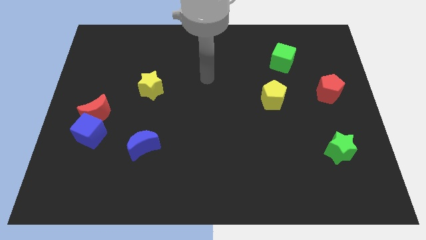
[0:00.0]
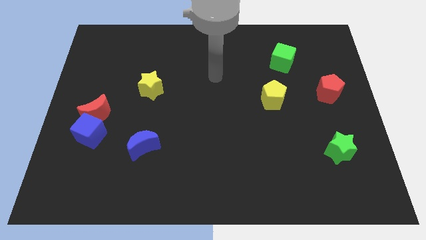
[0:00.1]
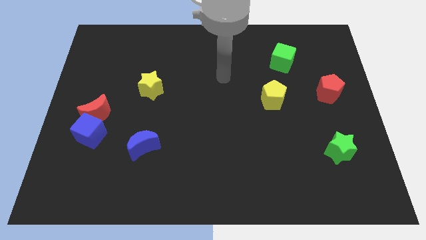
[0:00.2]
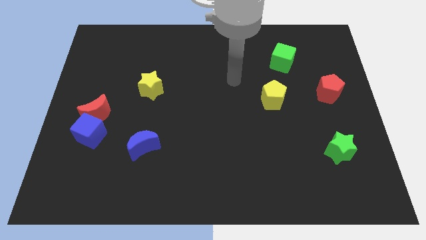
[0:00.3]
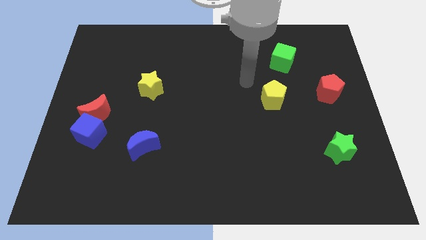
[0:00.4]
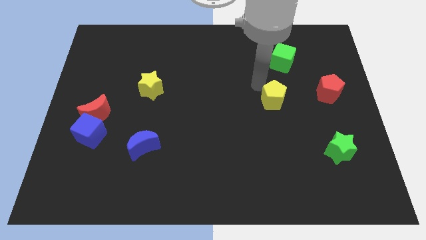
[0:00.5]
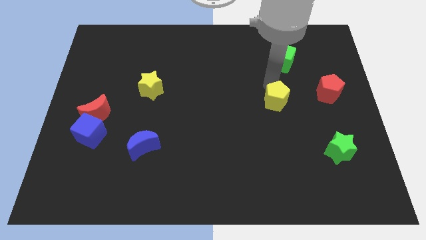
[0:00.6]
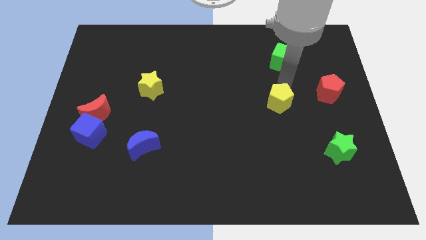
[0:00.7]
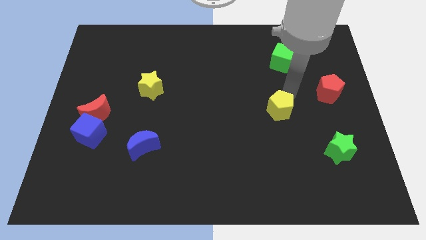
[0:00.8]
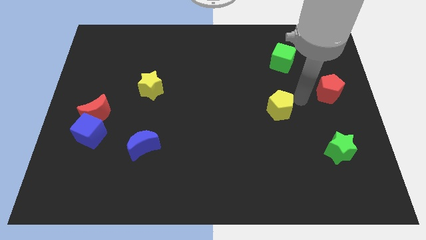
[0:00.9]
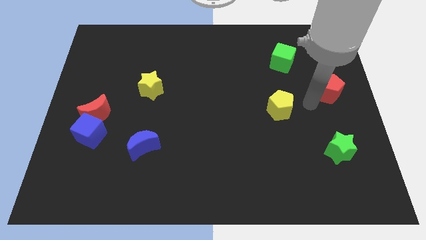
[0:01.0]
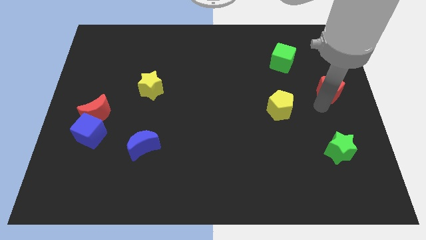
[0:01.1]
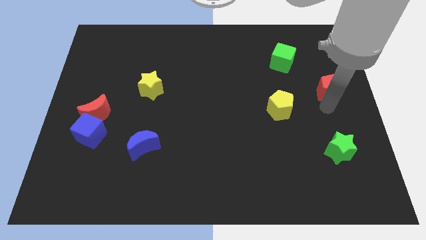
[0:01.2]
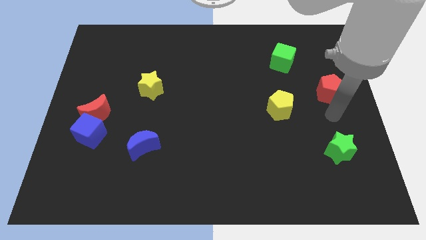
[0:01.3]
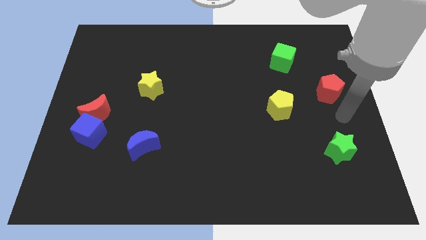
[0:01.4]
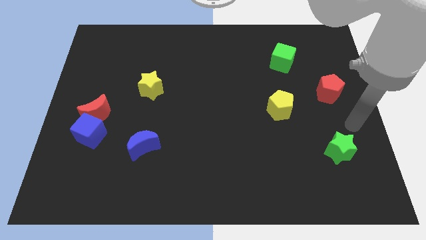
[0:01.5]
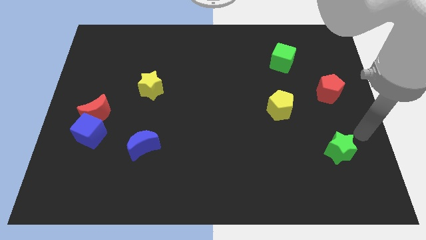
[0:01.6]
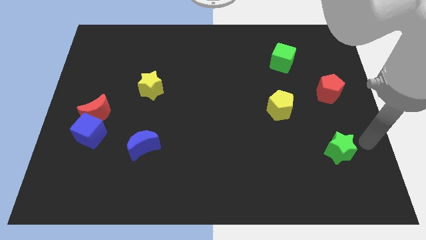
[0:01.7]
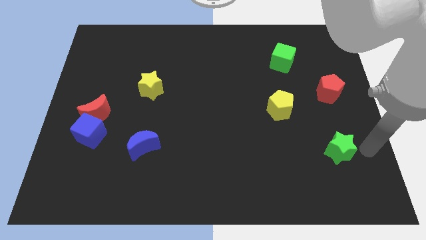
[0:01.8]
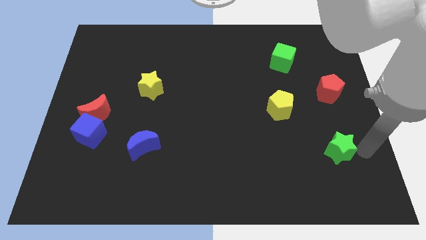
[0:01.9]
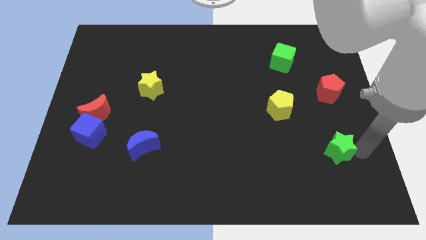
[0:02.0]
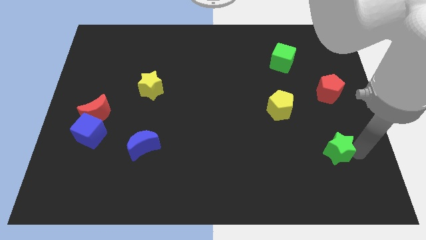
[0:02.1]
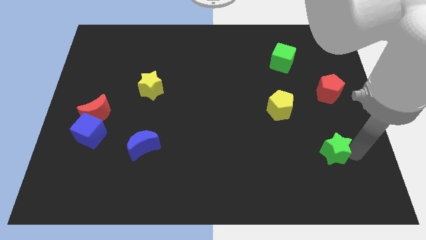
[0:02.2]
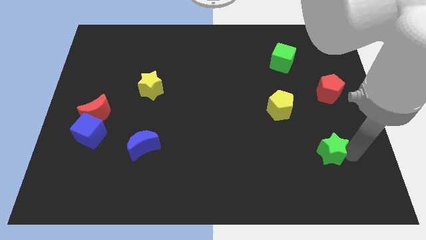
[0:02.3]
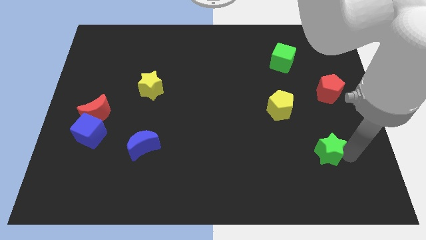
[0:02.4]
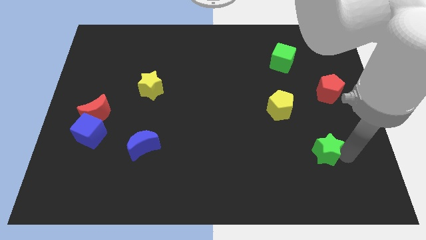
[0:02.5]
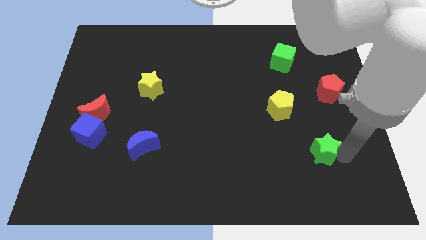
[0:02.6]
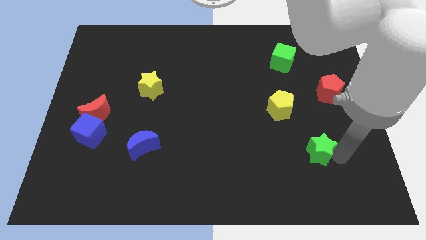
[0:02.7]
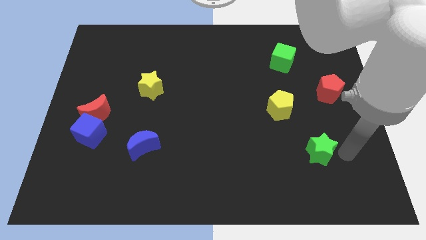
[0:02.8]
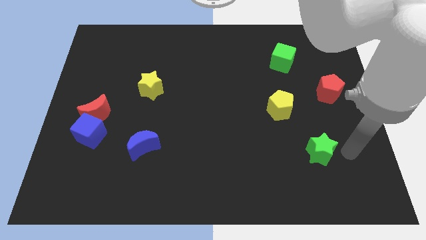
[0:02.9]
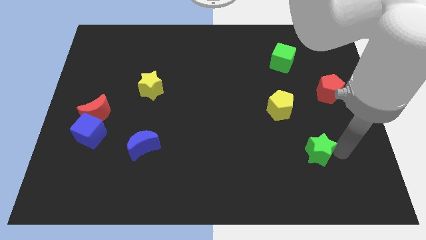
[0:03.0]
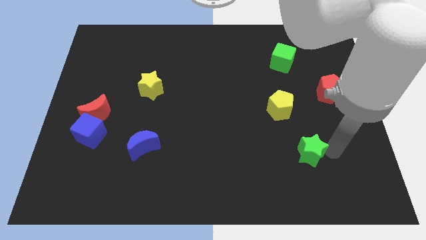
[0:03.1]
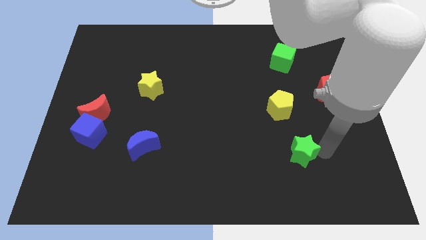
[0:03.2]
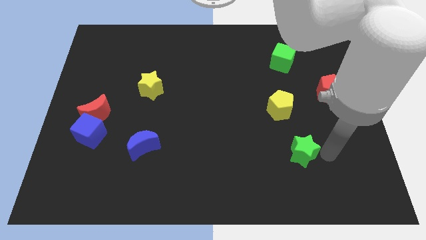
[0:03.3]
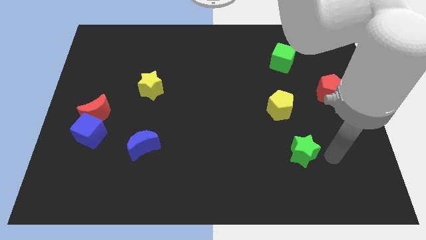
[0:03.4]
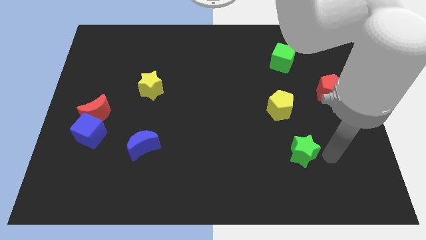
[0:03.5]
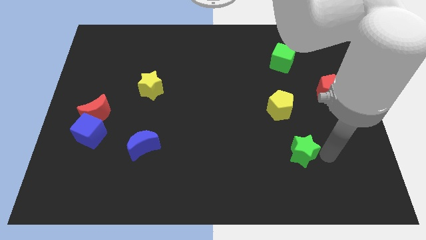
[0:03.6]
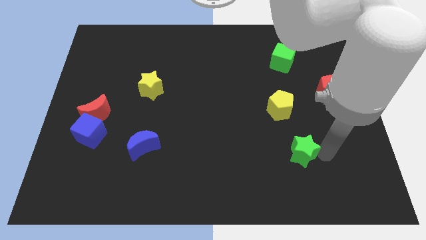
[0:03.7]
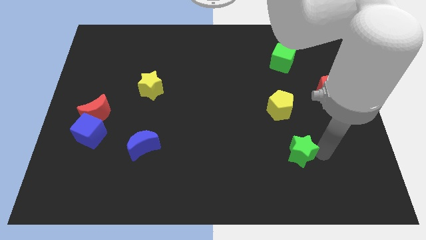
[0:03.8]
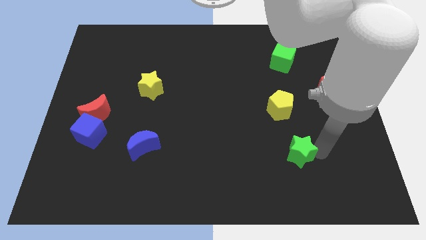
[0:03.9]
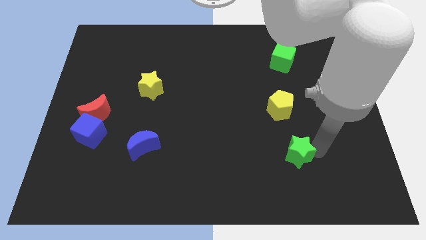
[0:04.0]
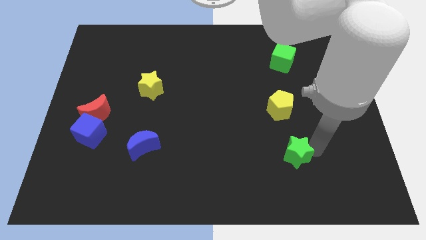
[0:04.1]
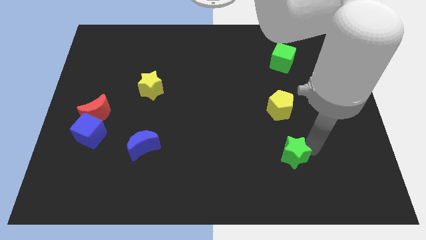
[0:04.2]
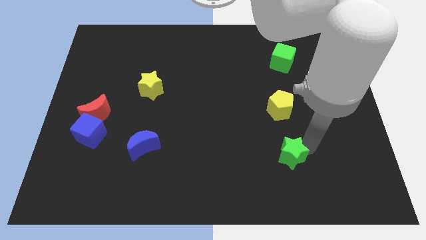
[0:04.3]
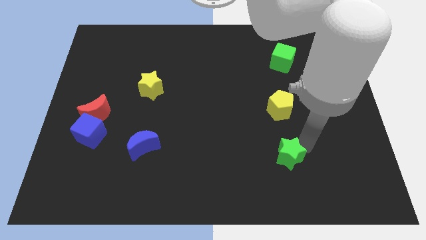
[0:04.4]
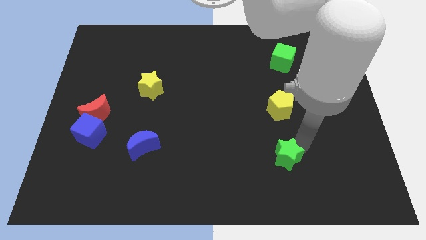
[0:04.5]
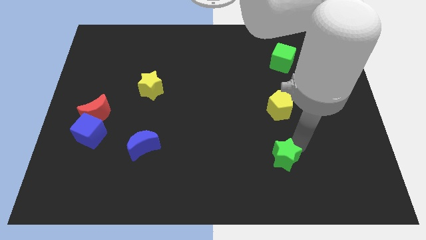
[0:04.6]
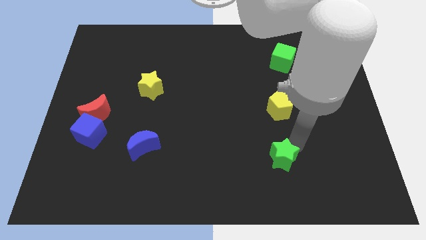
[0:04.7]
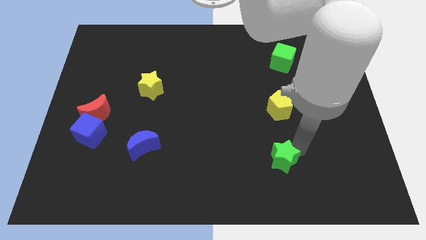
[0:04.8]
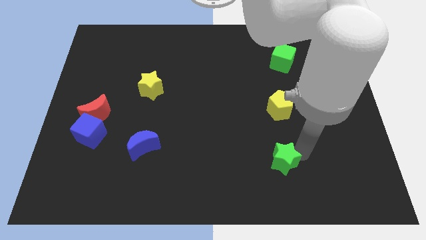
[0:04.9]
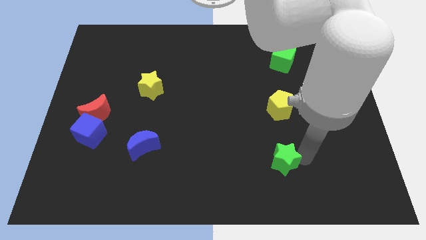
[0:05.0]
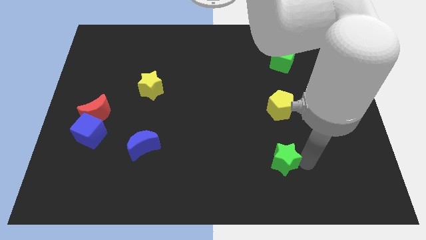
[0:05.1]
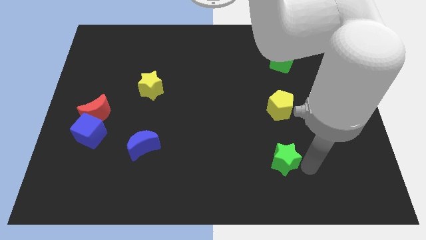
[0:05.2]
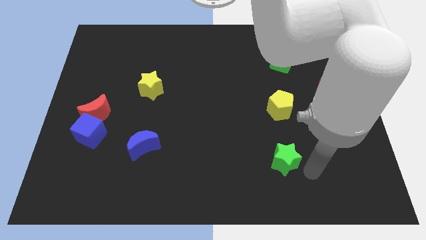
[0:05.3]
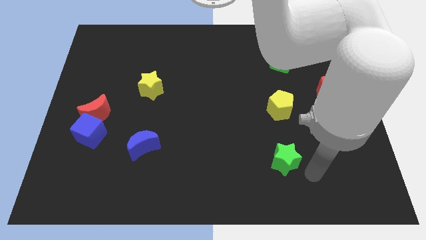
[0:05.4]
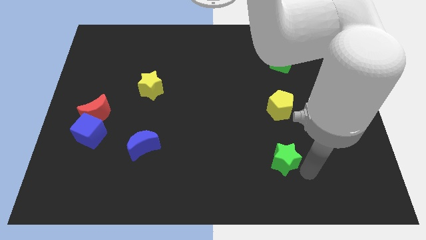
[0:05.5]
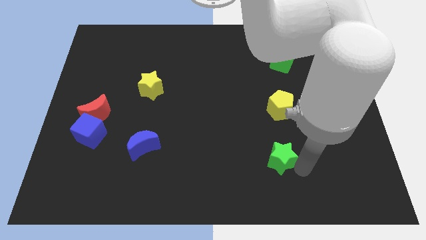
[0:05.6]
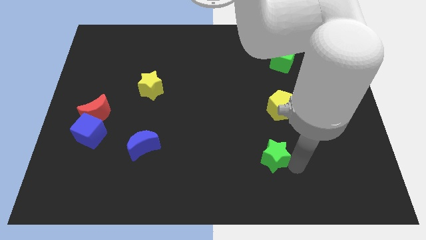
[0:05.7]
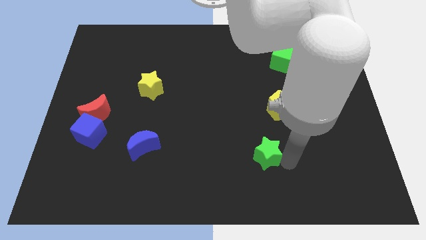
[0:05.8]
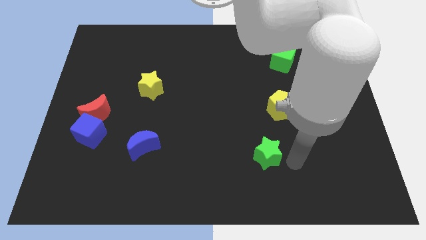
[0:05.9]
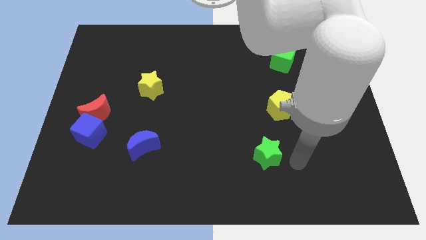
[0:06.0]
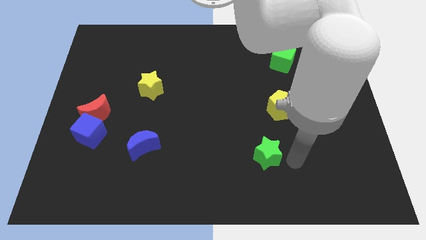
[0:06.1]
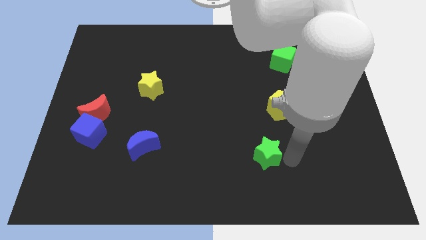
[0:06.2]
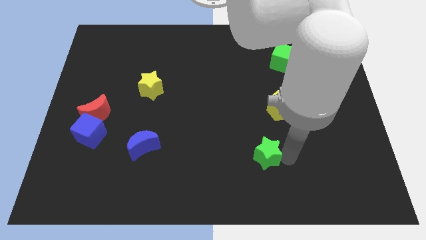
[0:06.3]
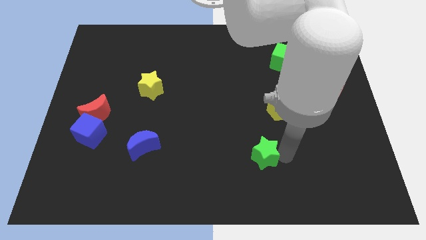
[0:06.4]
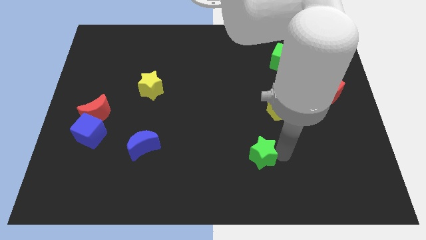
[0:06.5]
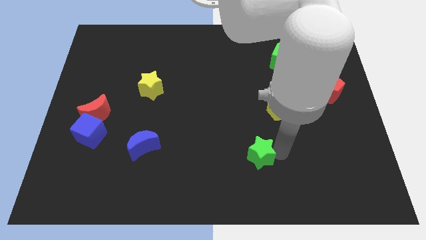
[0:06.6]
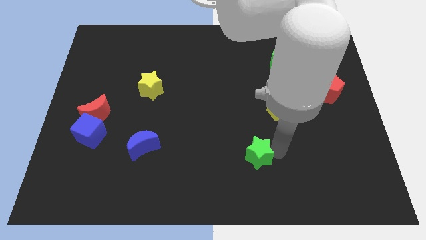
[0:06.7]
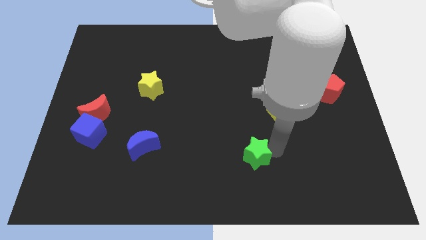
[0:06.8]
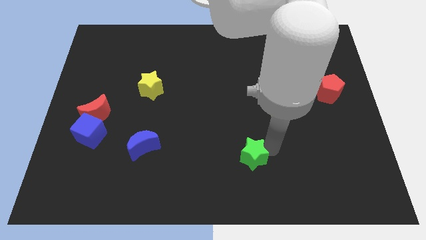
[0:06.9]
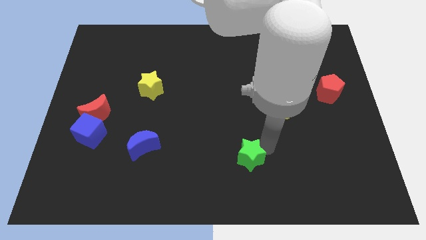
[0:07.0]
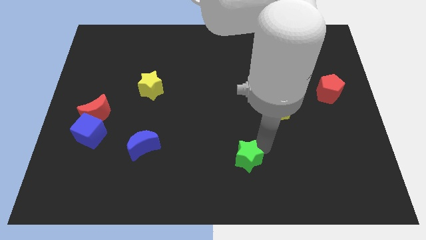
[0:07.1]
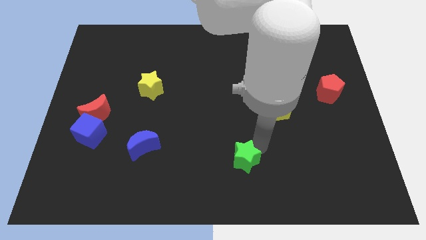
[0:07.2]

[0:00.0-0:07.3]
push the green star left

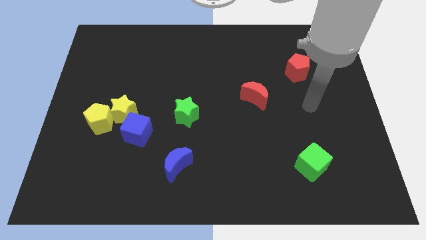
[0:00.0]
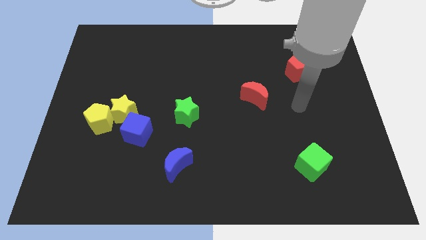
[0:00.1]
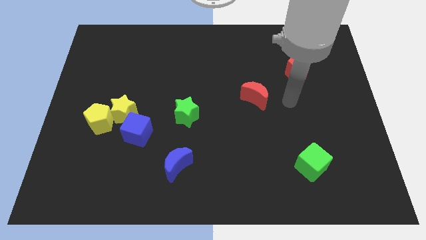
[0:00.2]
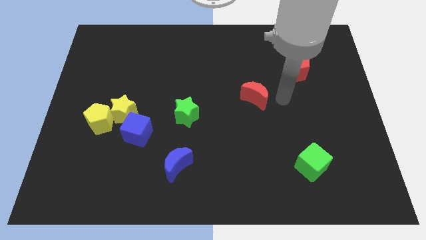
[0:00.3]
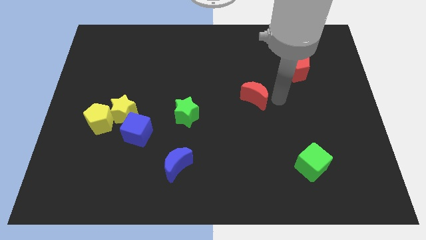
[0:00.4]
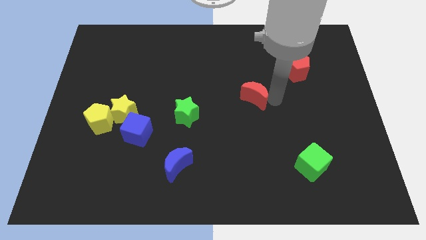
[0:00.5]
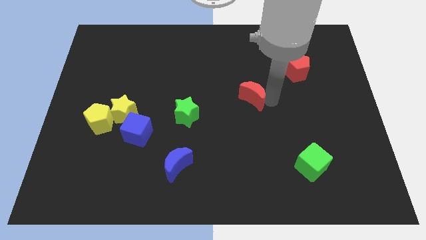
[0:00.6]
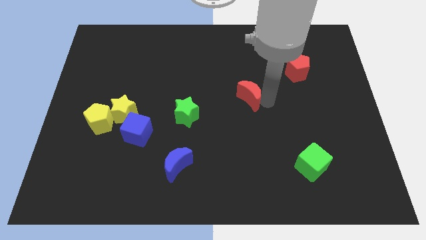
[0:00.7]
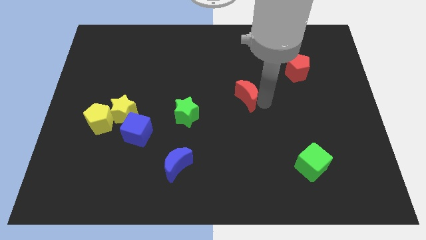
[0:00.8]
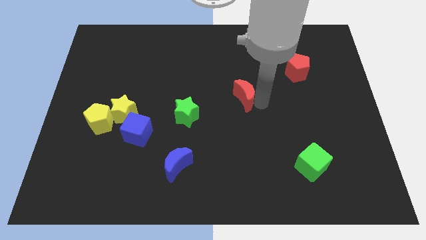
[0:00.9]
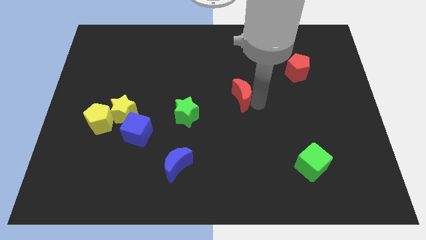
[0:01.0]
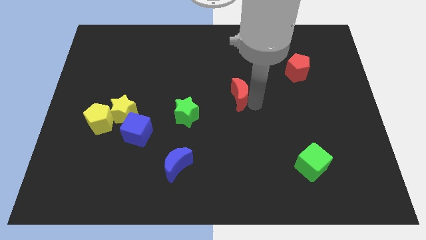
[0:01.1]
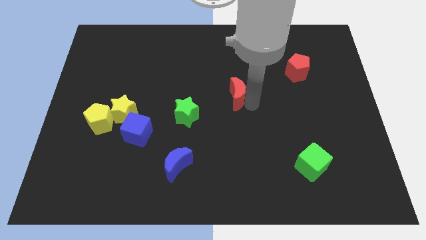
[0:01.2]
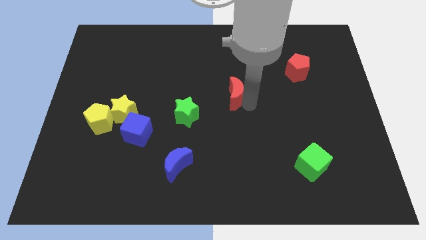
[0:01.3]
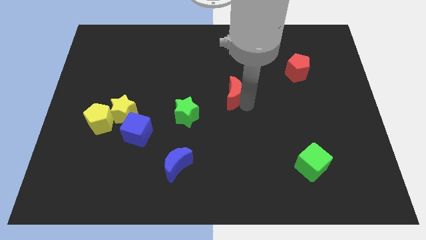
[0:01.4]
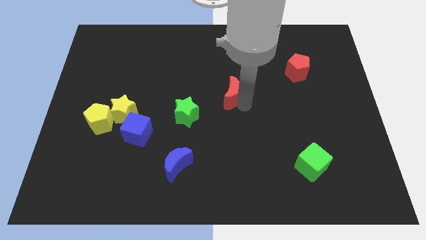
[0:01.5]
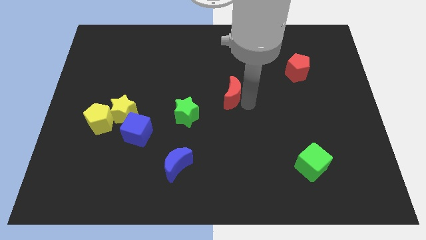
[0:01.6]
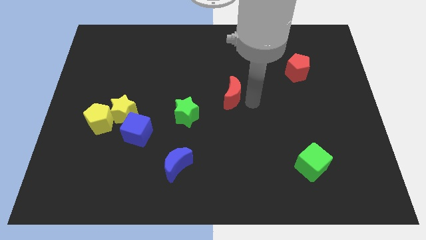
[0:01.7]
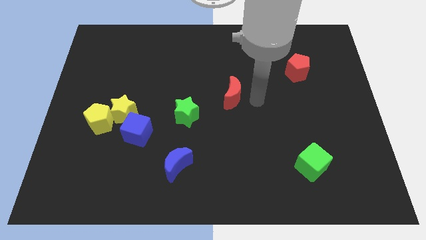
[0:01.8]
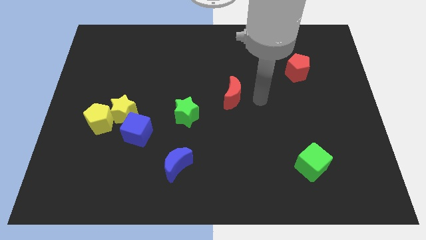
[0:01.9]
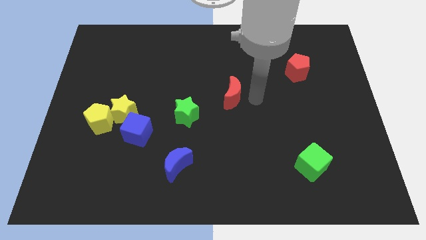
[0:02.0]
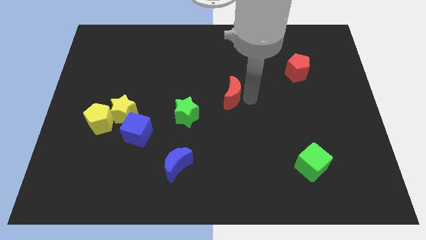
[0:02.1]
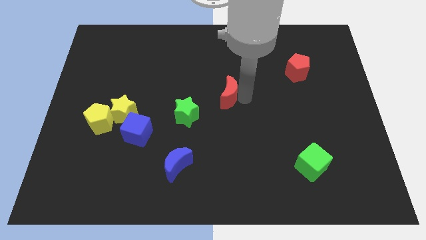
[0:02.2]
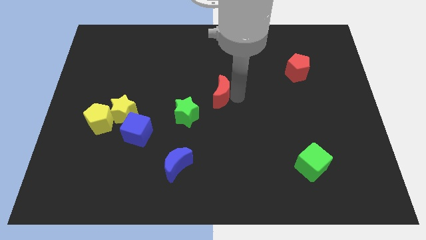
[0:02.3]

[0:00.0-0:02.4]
move the red moon a little bit to the left
